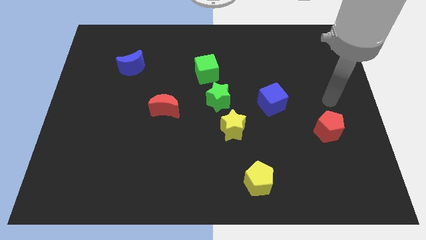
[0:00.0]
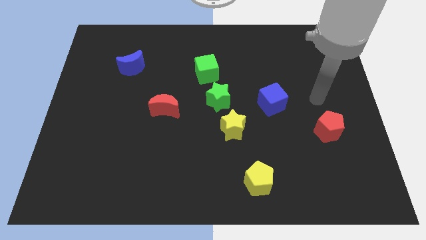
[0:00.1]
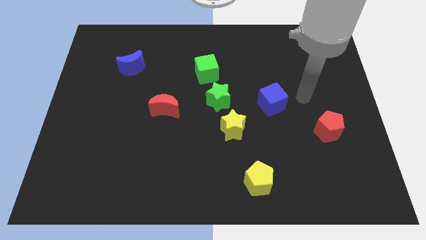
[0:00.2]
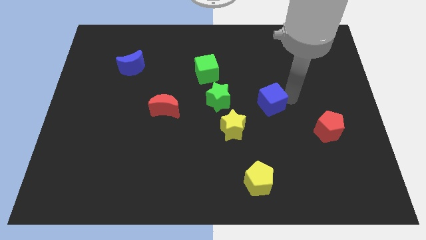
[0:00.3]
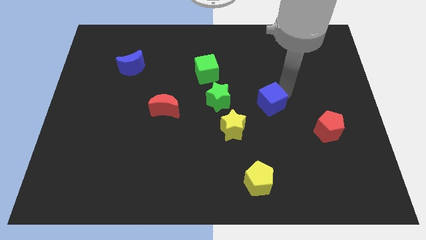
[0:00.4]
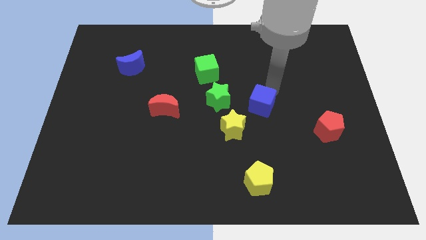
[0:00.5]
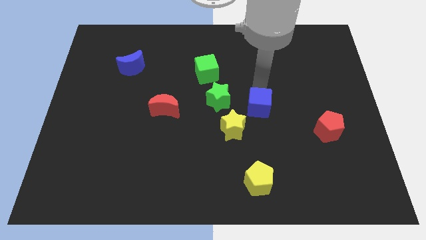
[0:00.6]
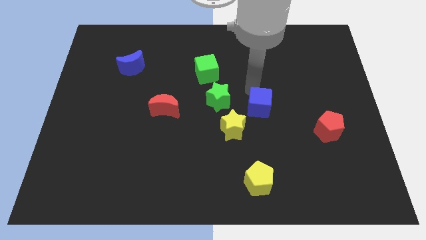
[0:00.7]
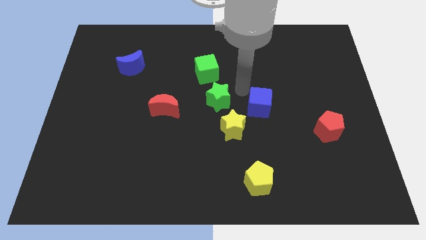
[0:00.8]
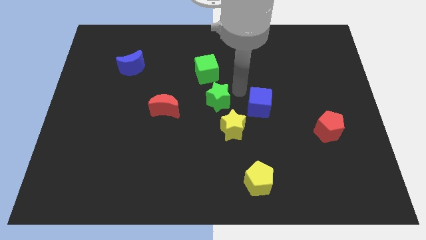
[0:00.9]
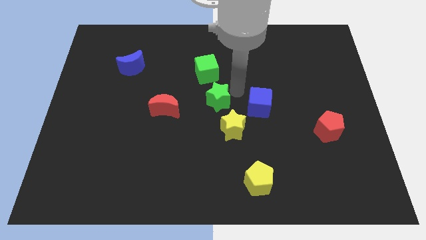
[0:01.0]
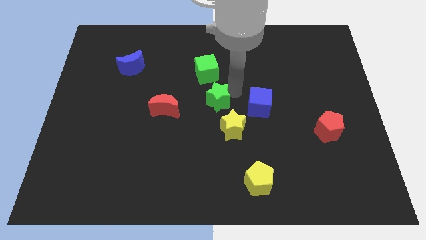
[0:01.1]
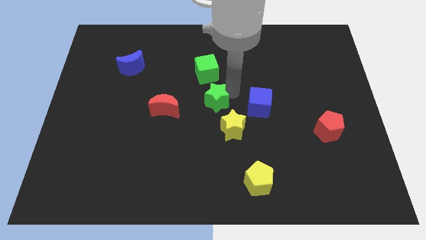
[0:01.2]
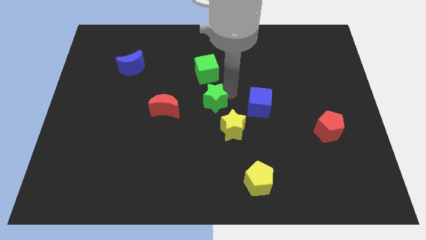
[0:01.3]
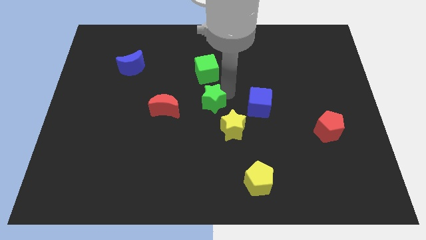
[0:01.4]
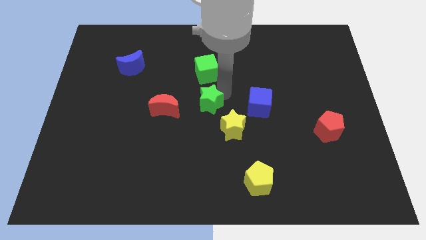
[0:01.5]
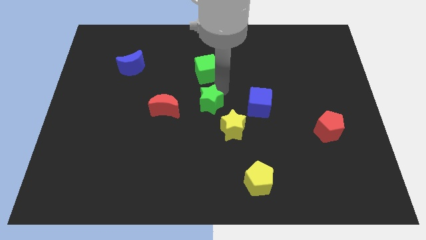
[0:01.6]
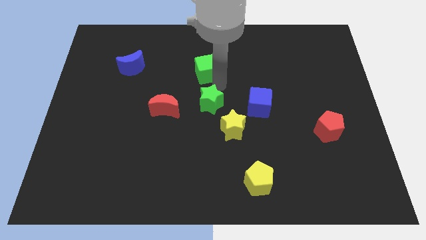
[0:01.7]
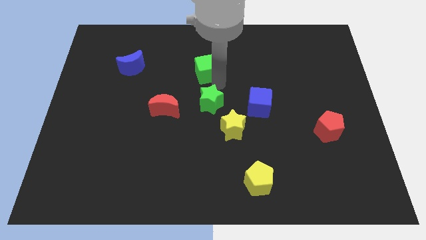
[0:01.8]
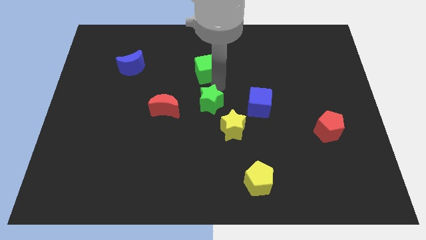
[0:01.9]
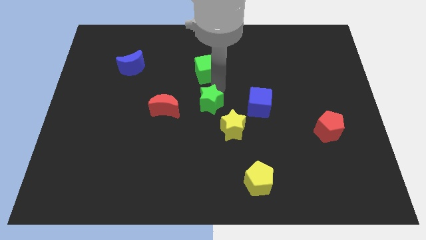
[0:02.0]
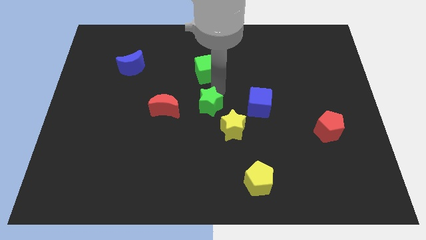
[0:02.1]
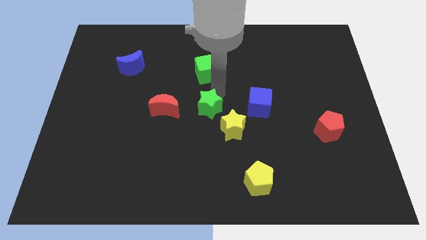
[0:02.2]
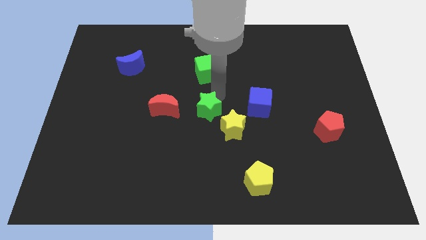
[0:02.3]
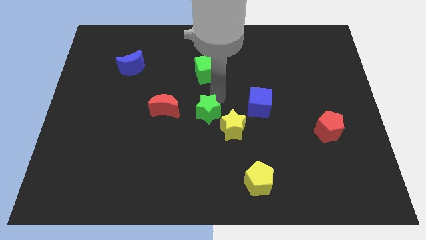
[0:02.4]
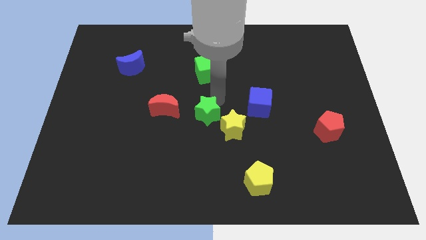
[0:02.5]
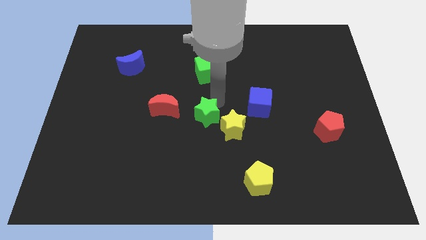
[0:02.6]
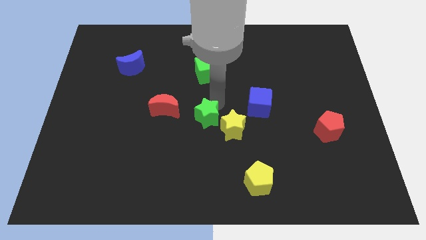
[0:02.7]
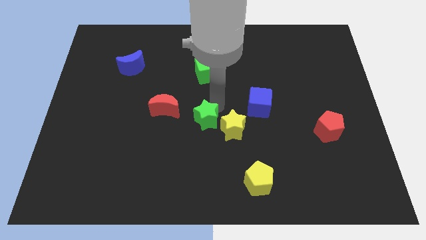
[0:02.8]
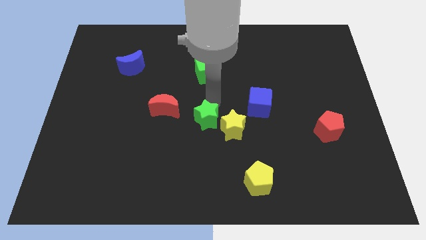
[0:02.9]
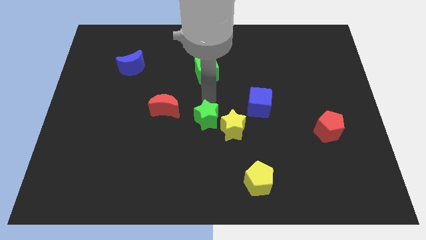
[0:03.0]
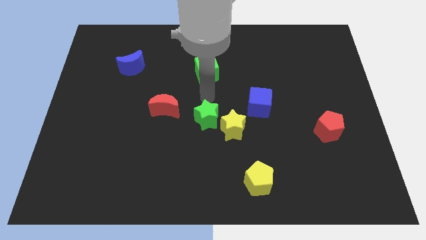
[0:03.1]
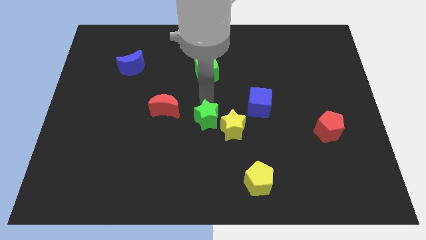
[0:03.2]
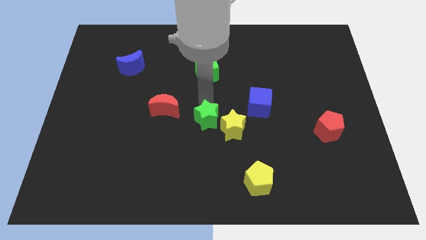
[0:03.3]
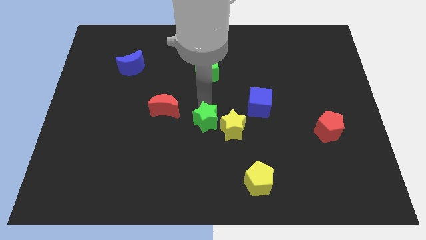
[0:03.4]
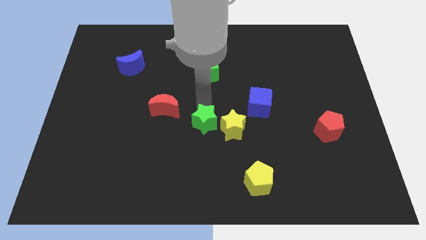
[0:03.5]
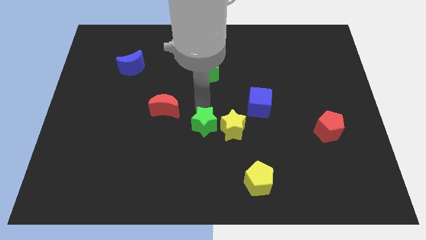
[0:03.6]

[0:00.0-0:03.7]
slide the green star down slightly

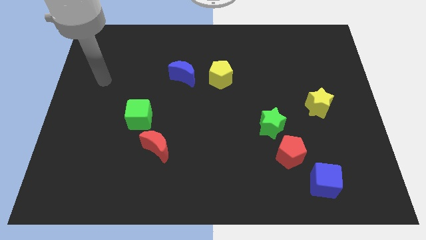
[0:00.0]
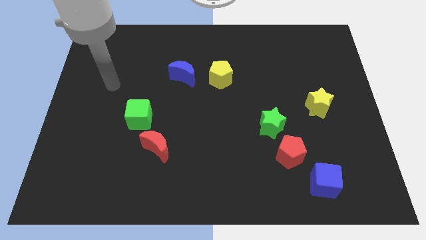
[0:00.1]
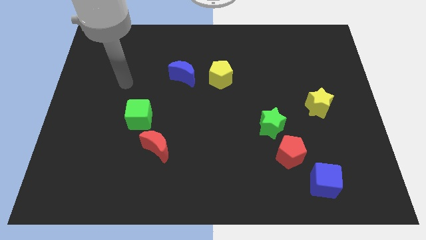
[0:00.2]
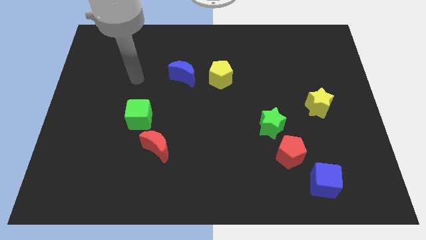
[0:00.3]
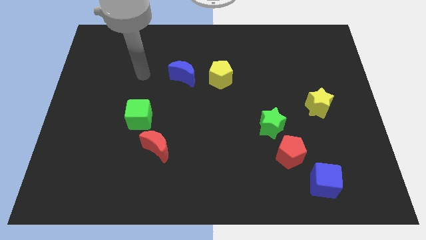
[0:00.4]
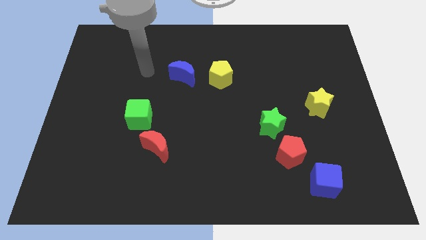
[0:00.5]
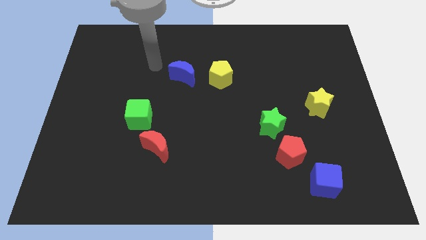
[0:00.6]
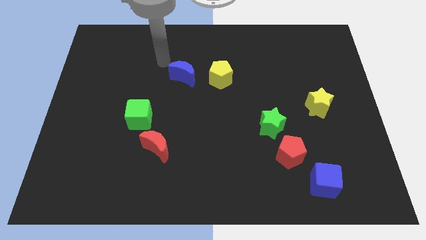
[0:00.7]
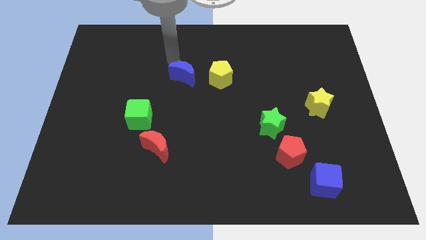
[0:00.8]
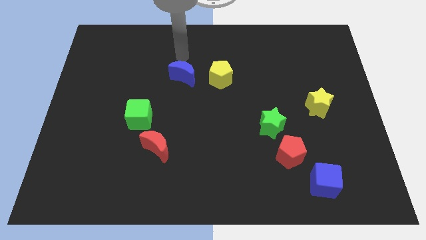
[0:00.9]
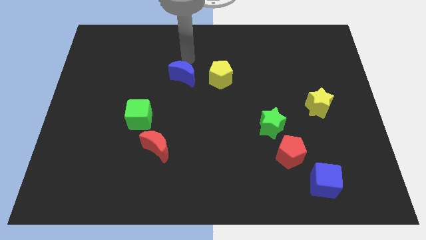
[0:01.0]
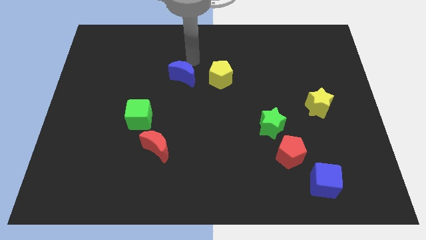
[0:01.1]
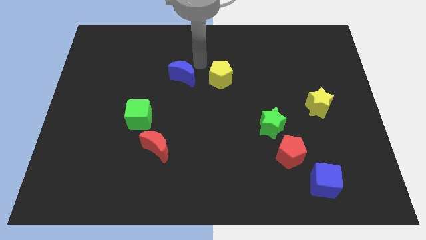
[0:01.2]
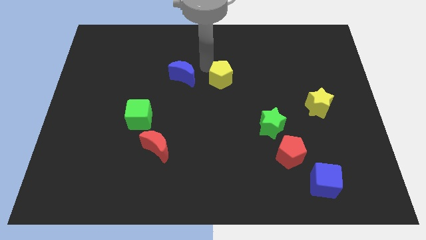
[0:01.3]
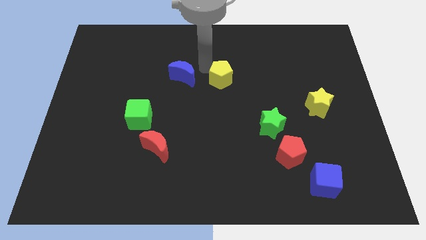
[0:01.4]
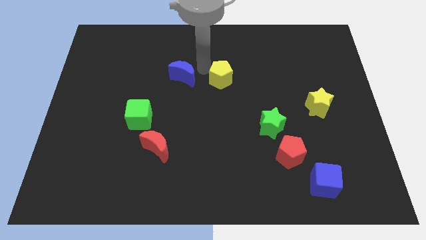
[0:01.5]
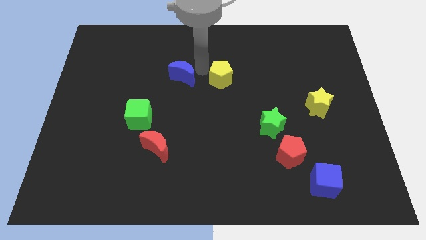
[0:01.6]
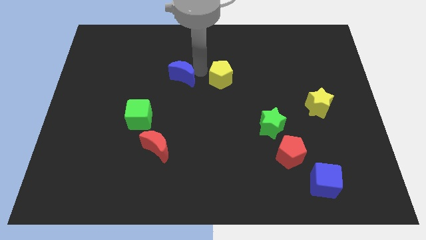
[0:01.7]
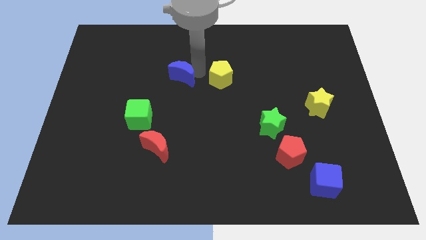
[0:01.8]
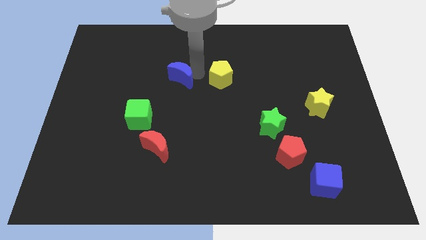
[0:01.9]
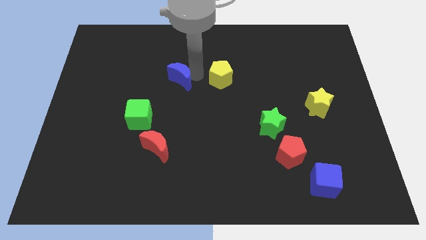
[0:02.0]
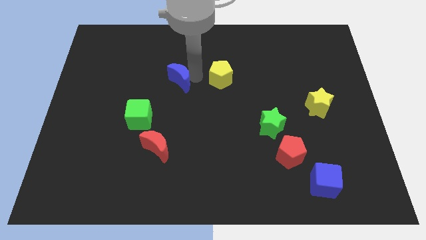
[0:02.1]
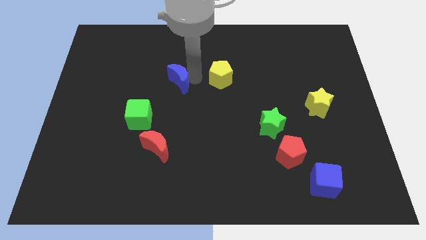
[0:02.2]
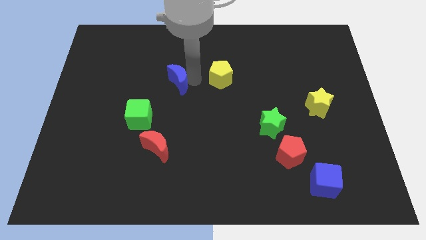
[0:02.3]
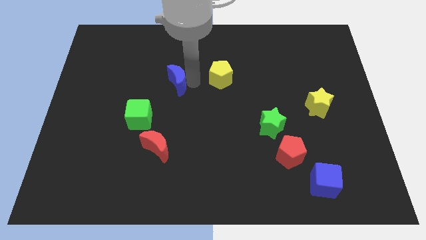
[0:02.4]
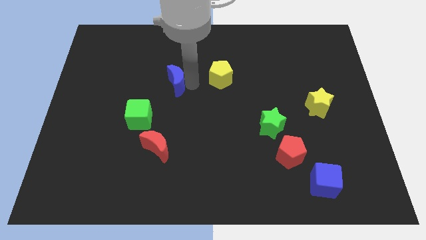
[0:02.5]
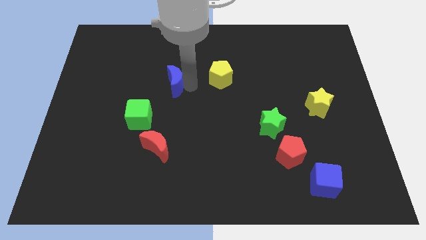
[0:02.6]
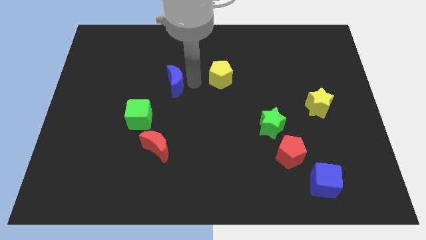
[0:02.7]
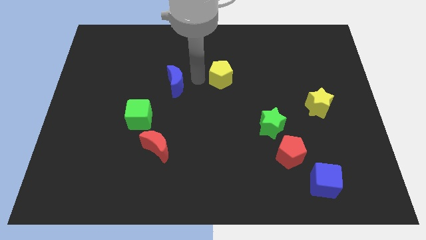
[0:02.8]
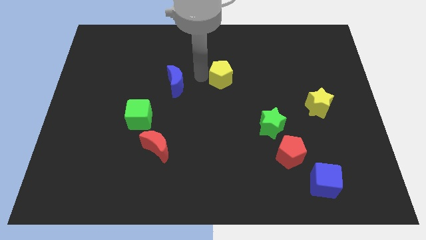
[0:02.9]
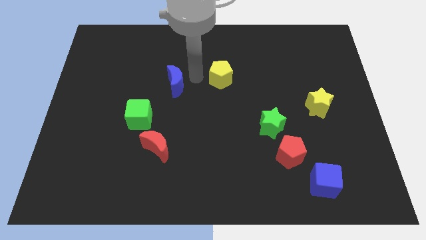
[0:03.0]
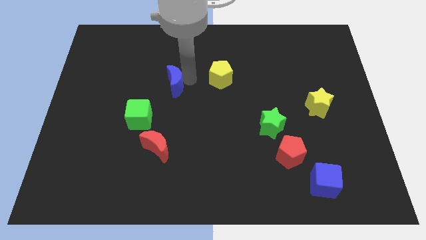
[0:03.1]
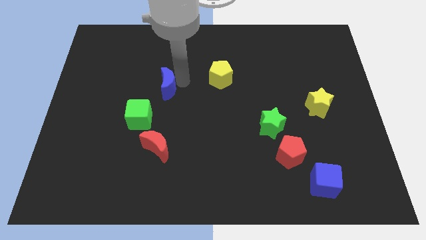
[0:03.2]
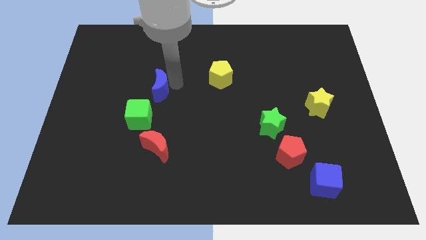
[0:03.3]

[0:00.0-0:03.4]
slightly push the blue moon downwards and to the left

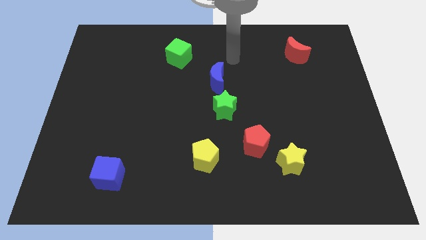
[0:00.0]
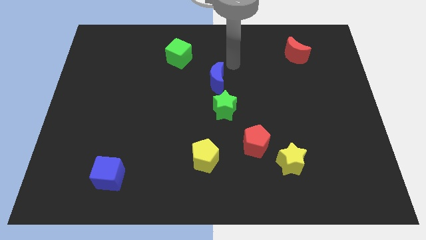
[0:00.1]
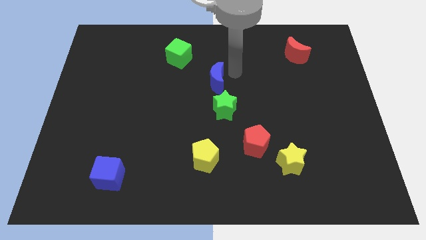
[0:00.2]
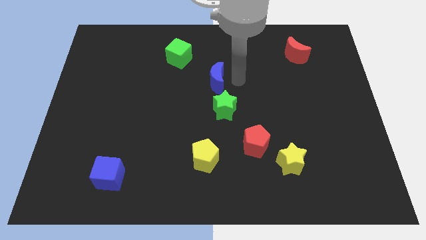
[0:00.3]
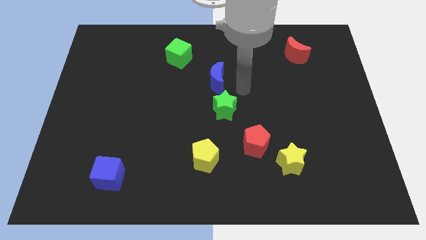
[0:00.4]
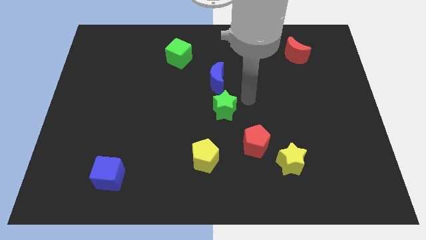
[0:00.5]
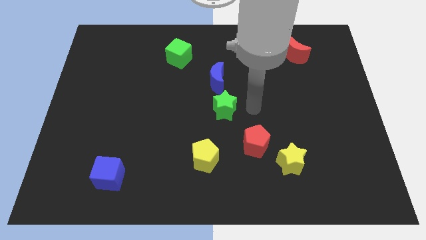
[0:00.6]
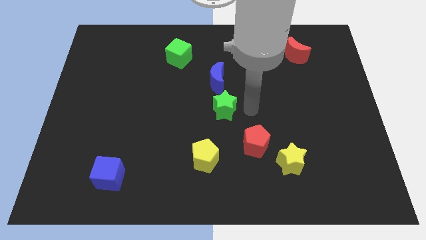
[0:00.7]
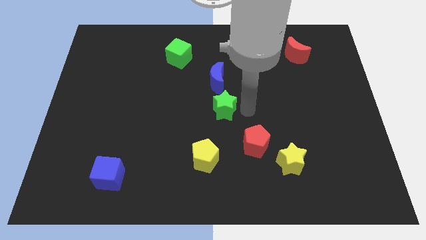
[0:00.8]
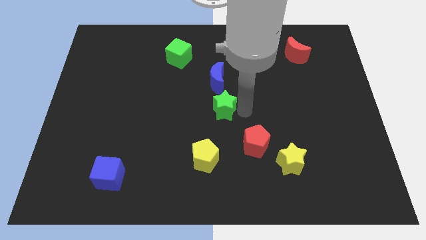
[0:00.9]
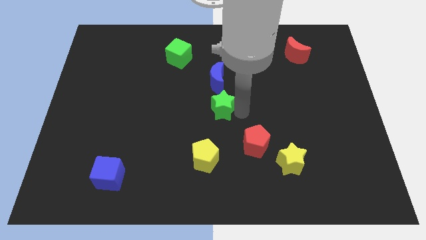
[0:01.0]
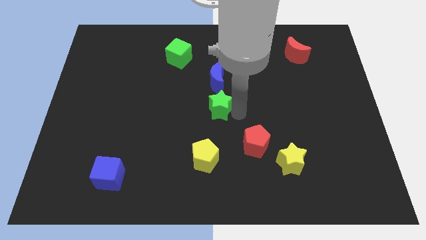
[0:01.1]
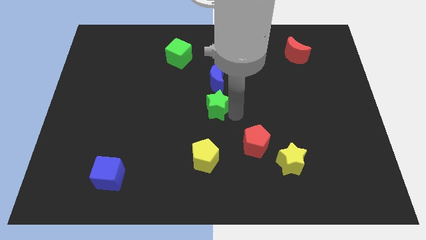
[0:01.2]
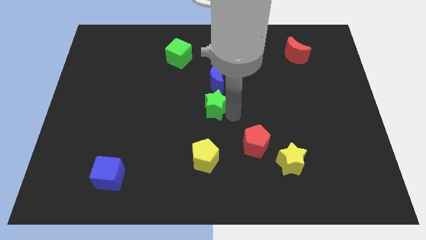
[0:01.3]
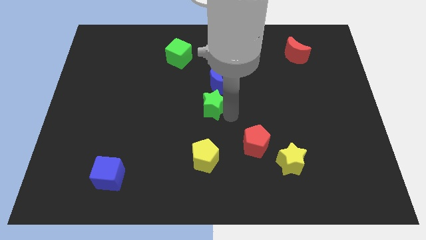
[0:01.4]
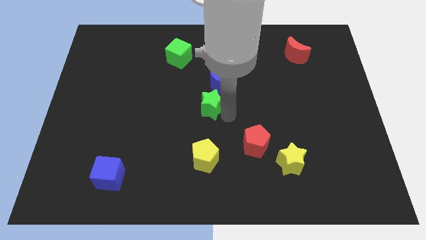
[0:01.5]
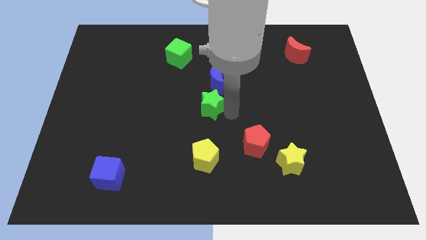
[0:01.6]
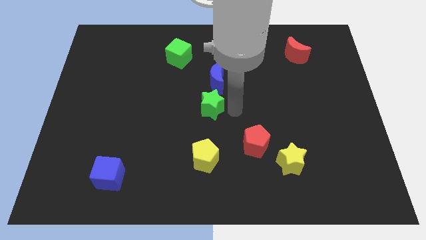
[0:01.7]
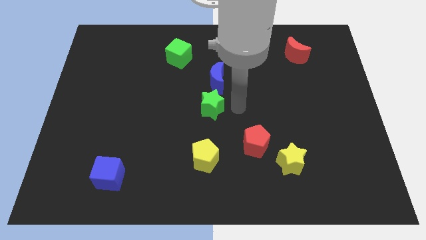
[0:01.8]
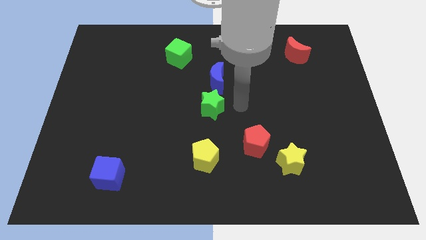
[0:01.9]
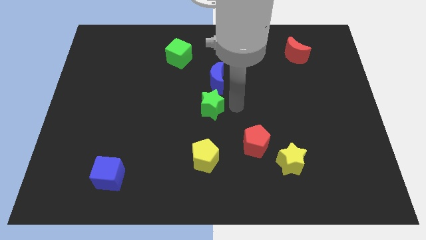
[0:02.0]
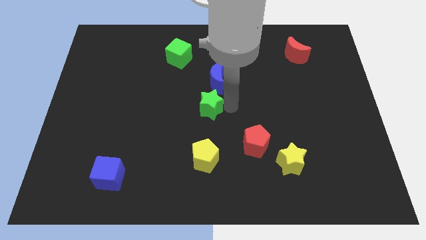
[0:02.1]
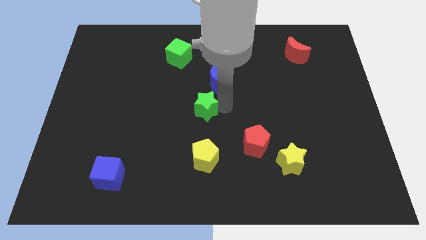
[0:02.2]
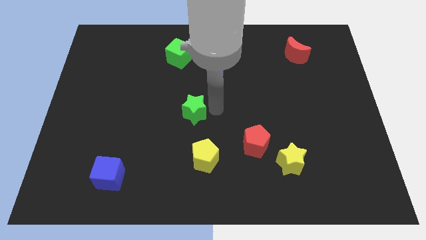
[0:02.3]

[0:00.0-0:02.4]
slightly push the green star to the left
